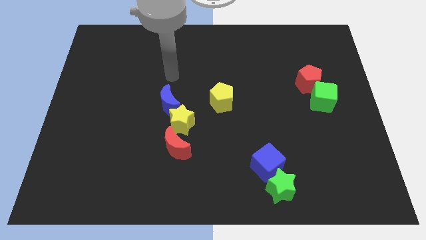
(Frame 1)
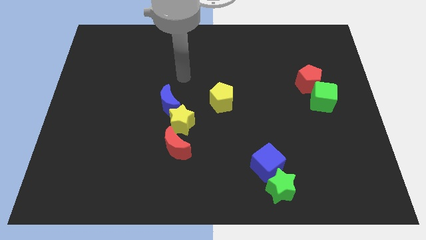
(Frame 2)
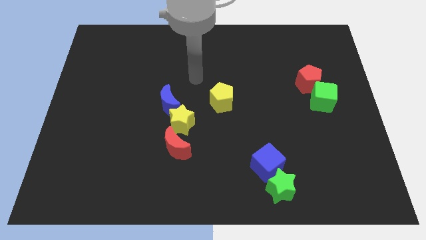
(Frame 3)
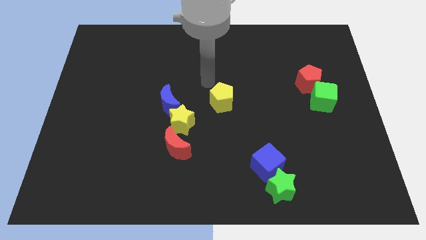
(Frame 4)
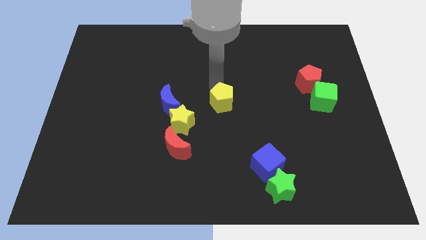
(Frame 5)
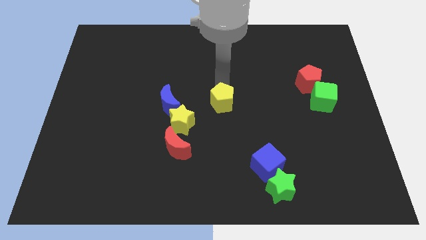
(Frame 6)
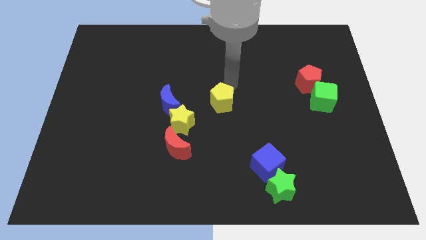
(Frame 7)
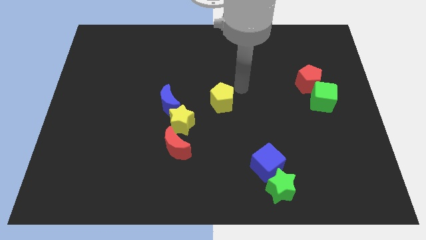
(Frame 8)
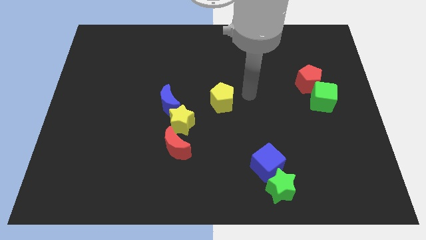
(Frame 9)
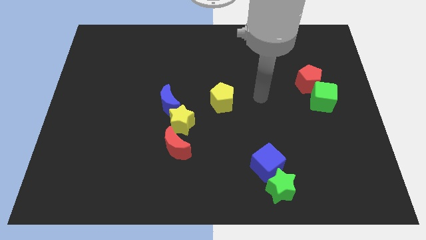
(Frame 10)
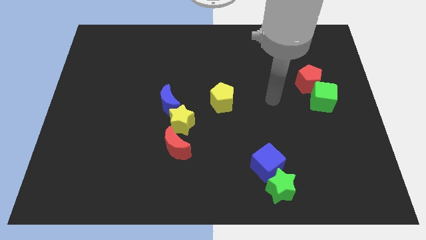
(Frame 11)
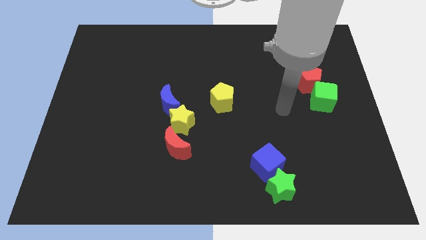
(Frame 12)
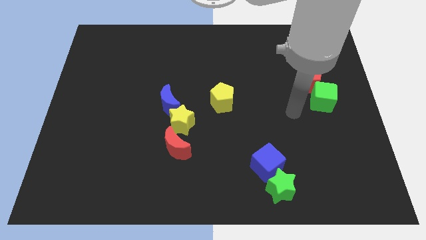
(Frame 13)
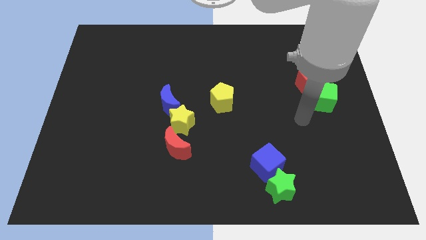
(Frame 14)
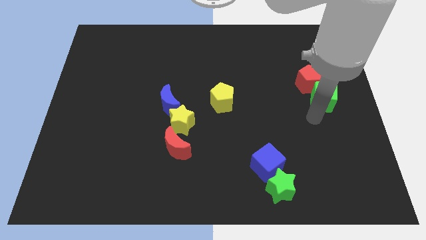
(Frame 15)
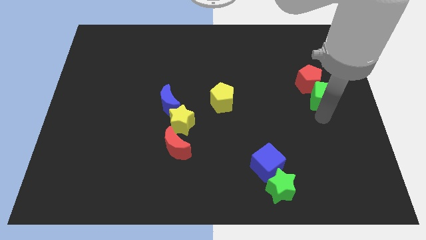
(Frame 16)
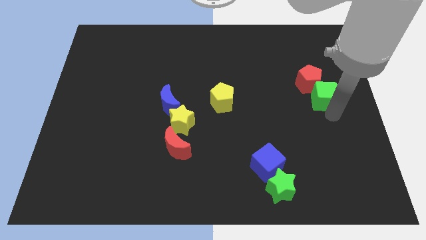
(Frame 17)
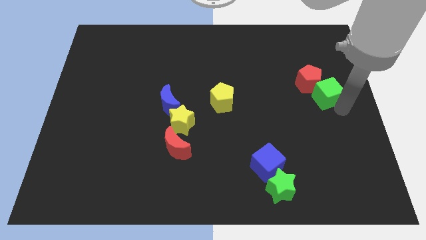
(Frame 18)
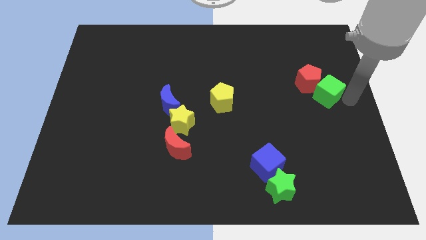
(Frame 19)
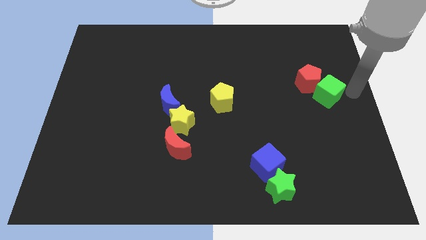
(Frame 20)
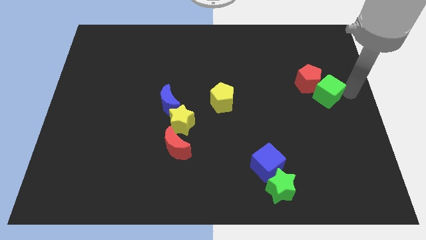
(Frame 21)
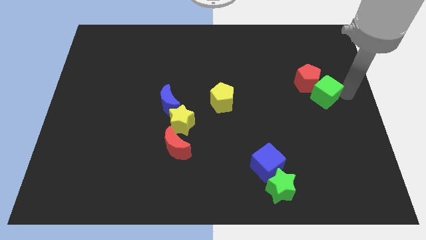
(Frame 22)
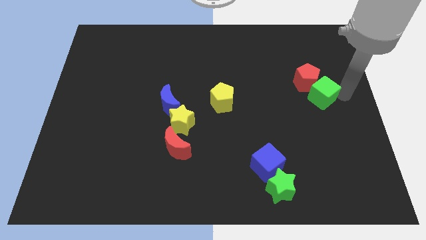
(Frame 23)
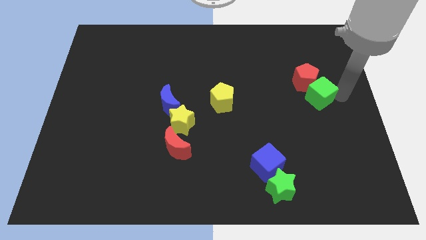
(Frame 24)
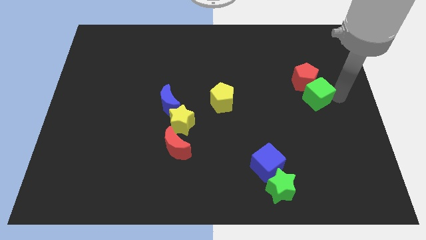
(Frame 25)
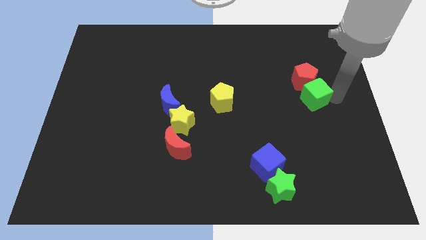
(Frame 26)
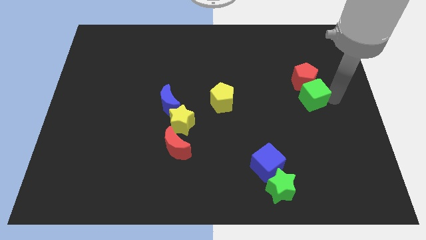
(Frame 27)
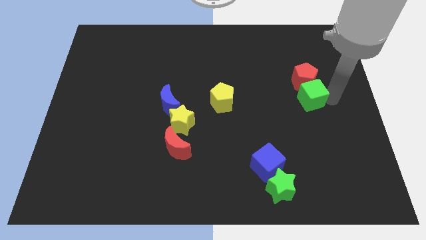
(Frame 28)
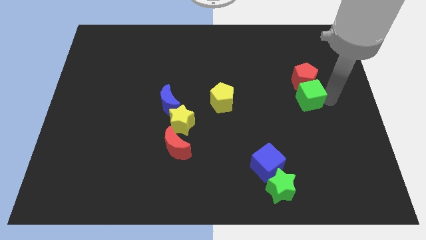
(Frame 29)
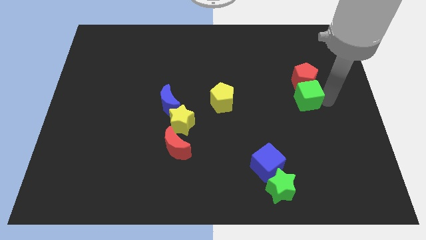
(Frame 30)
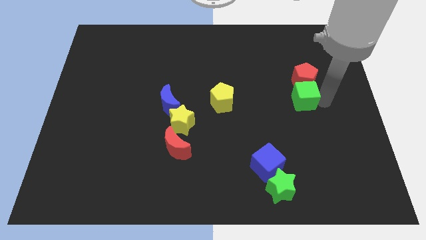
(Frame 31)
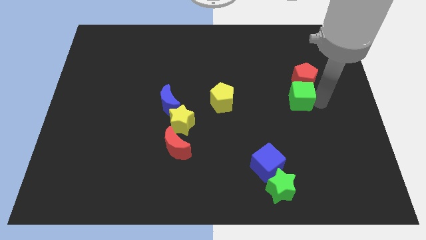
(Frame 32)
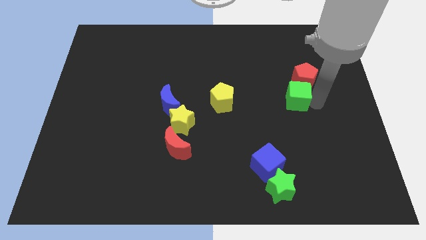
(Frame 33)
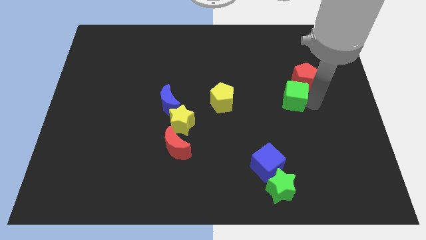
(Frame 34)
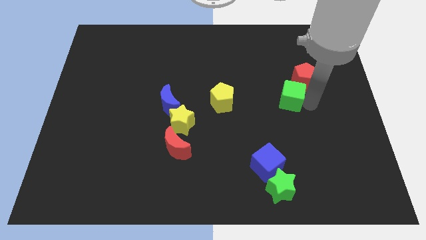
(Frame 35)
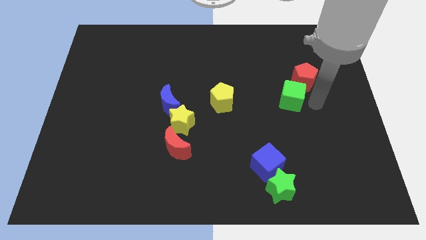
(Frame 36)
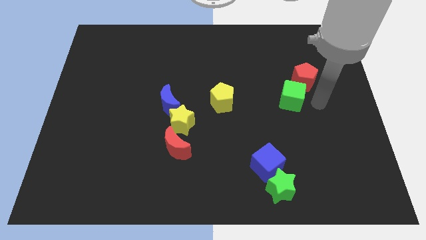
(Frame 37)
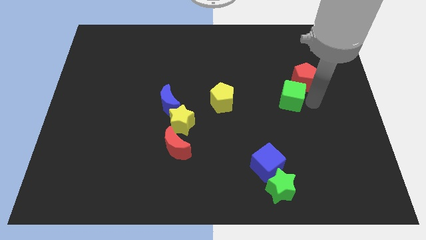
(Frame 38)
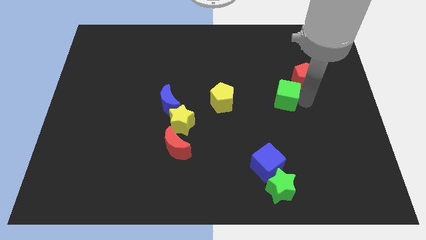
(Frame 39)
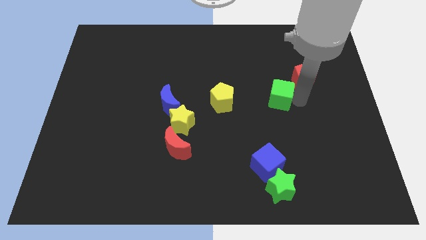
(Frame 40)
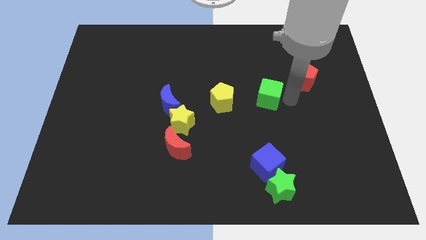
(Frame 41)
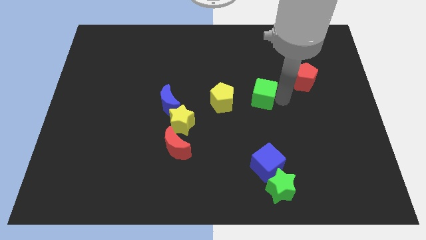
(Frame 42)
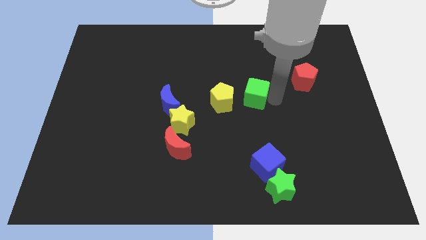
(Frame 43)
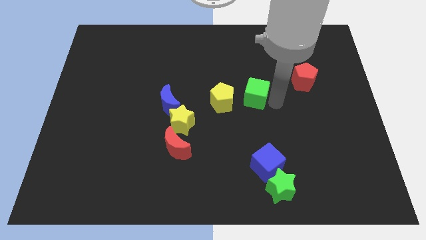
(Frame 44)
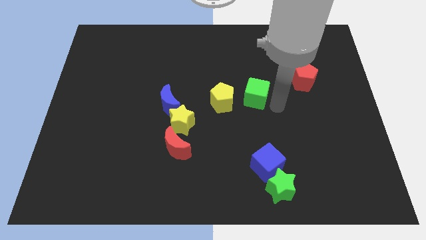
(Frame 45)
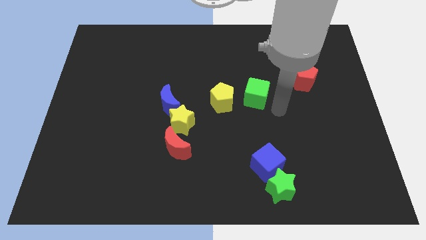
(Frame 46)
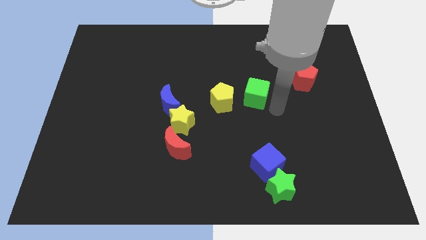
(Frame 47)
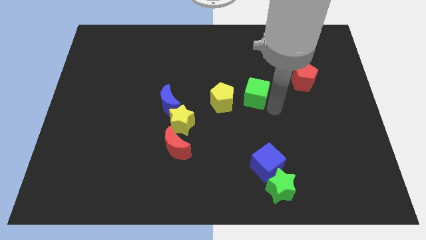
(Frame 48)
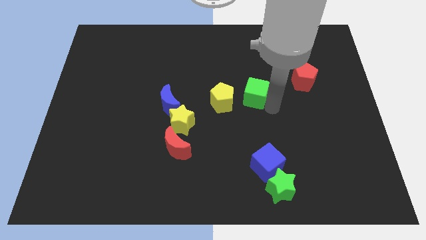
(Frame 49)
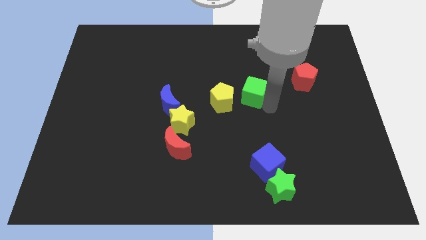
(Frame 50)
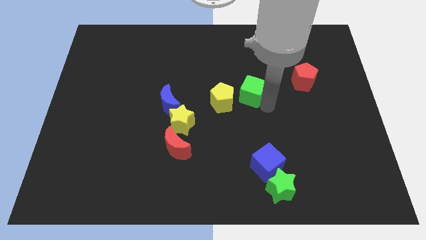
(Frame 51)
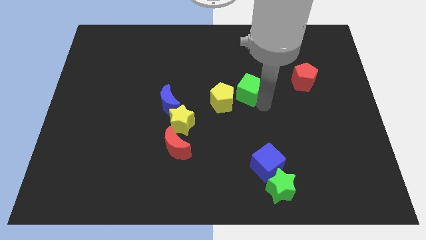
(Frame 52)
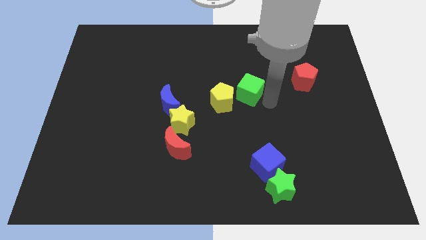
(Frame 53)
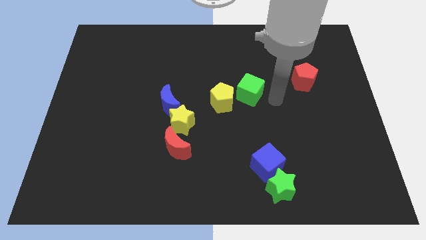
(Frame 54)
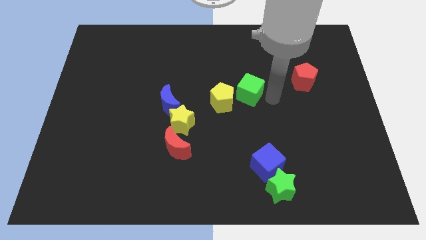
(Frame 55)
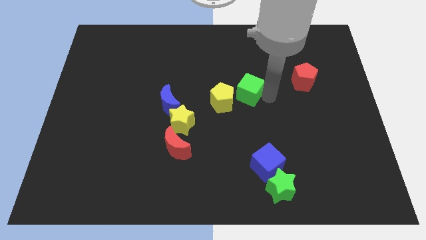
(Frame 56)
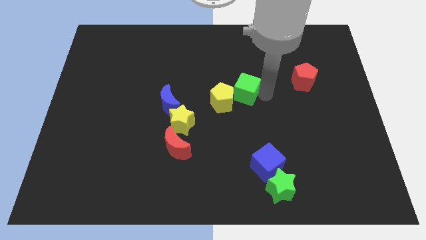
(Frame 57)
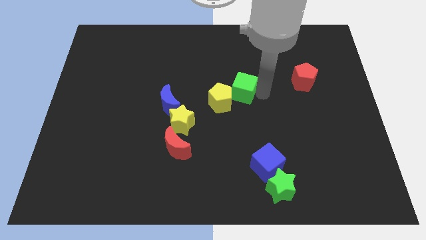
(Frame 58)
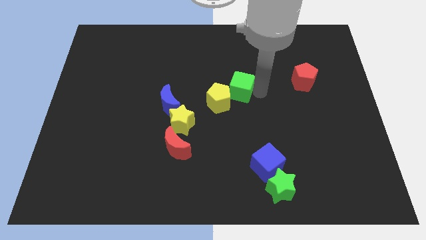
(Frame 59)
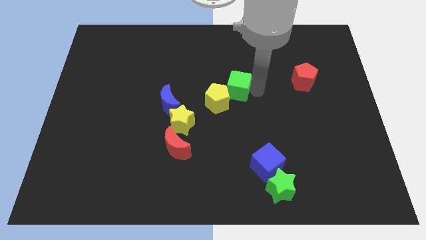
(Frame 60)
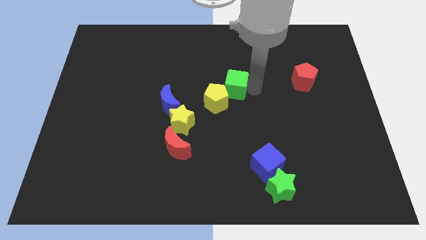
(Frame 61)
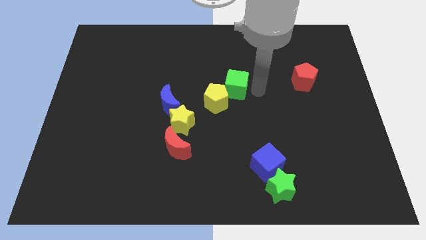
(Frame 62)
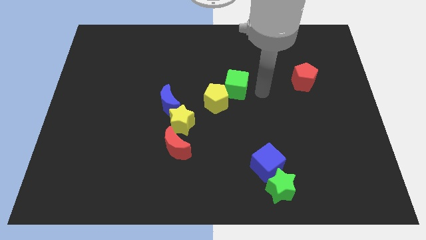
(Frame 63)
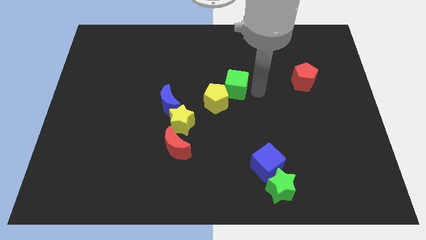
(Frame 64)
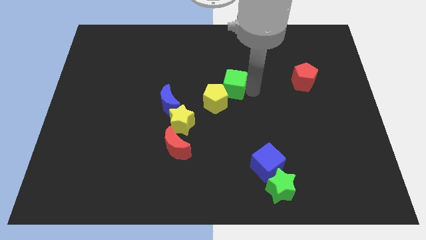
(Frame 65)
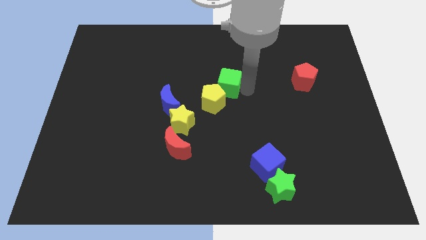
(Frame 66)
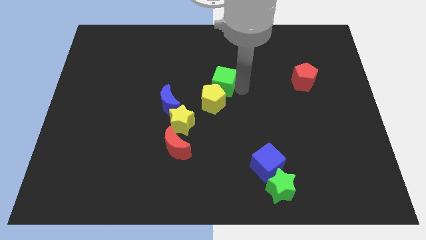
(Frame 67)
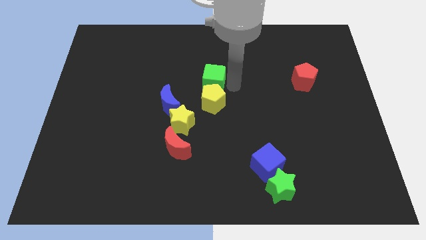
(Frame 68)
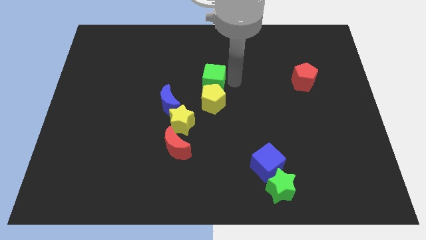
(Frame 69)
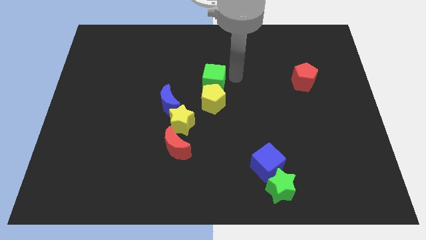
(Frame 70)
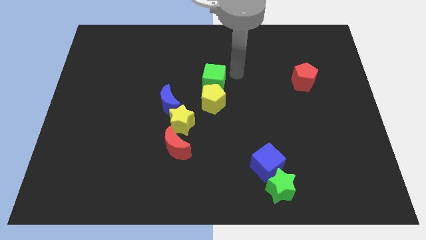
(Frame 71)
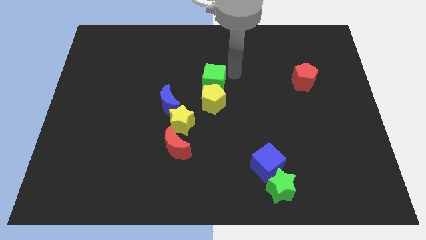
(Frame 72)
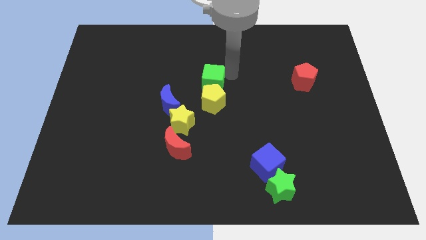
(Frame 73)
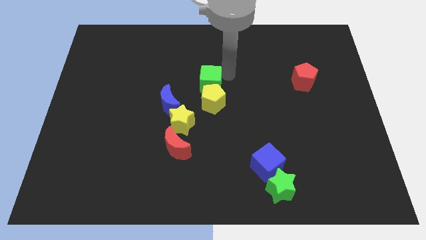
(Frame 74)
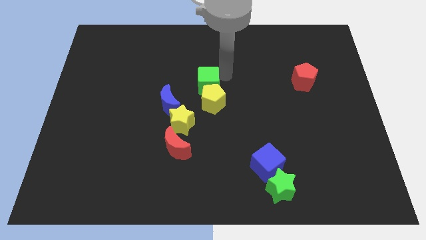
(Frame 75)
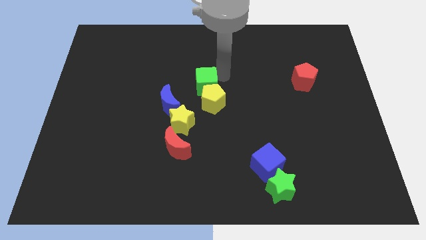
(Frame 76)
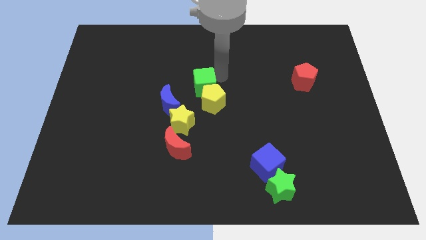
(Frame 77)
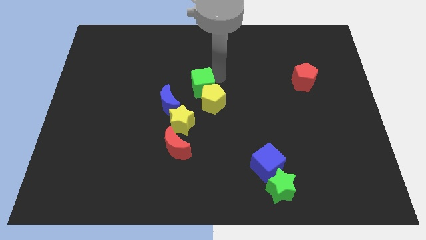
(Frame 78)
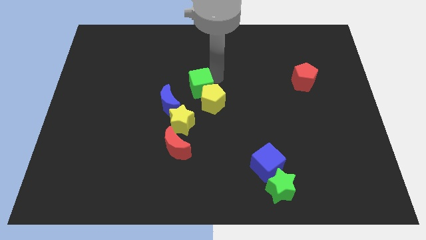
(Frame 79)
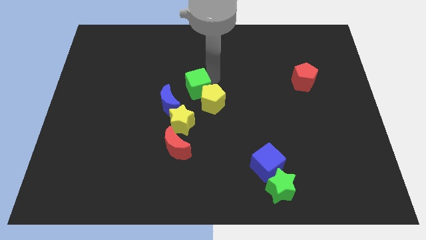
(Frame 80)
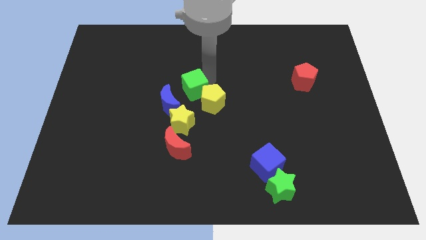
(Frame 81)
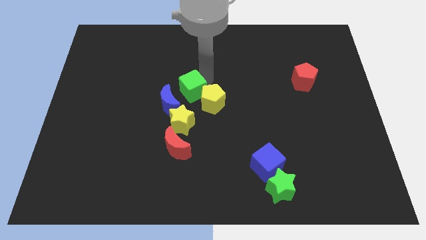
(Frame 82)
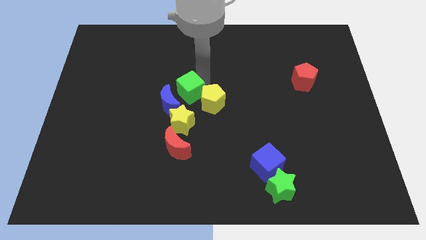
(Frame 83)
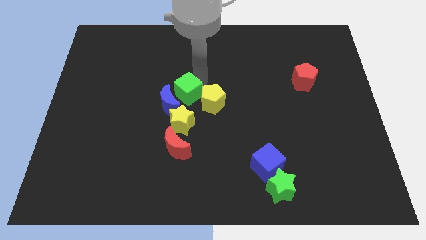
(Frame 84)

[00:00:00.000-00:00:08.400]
move the green cube to the top of the red moon
